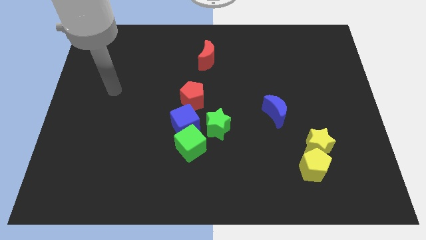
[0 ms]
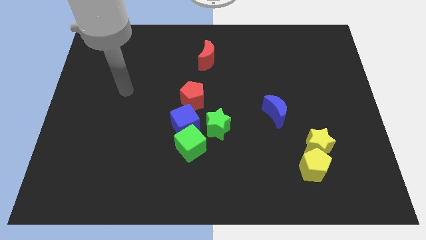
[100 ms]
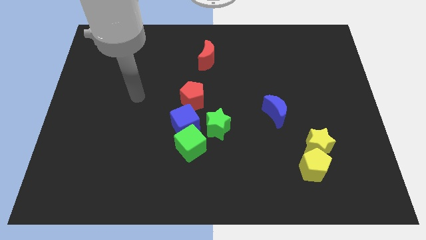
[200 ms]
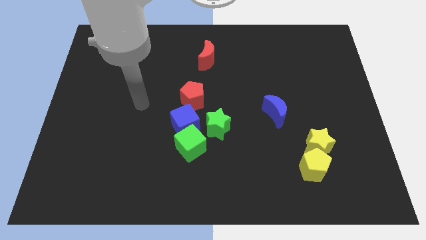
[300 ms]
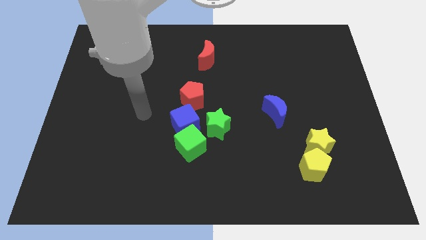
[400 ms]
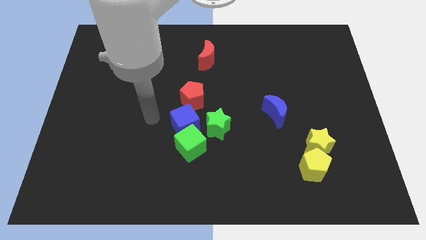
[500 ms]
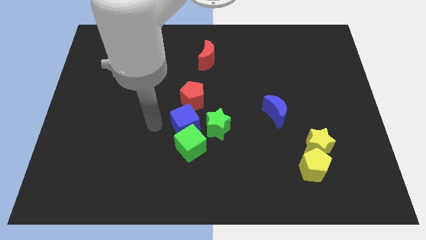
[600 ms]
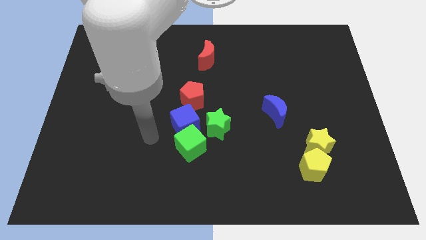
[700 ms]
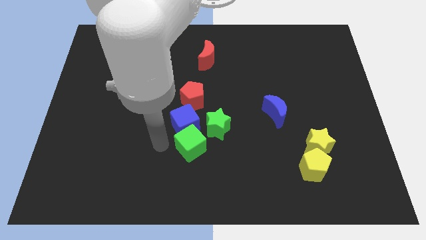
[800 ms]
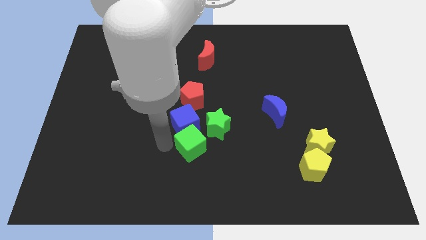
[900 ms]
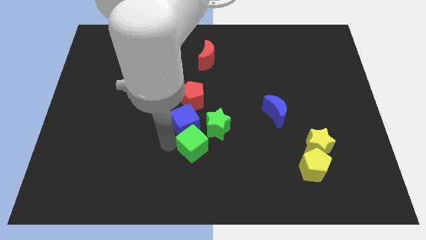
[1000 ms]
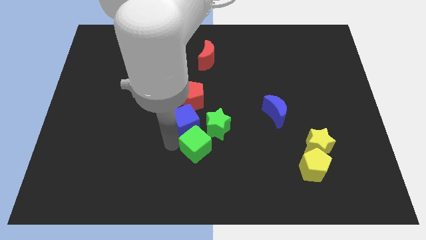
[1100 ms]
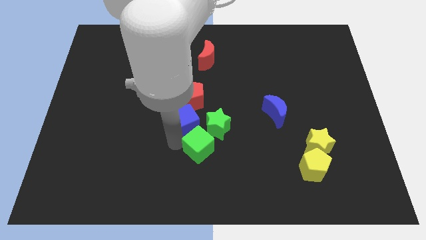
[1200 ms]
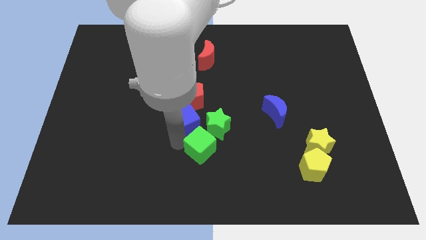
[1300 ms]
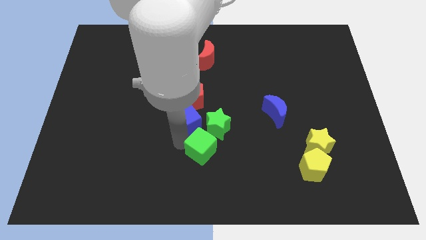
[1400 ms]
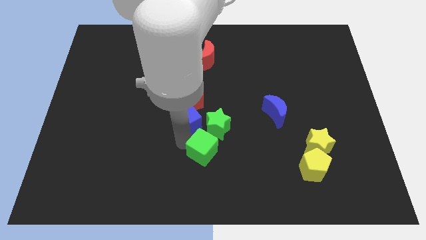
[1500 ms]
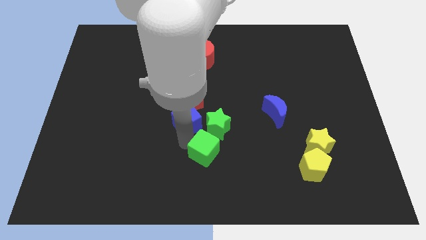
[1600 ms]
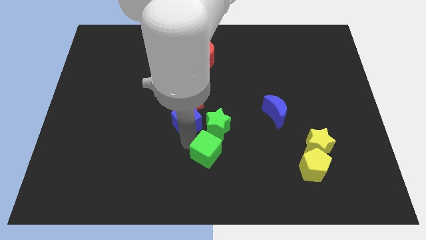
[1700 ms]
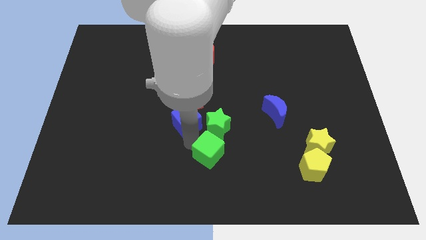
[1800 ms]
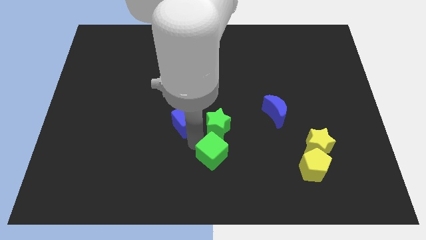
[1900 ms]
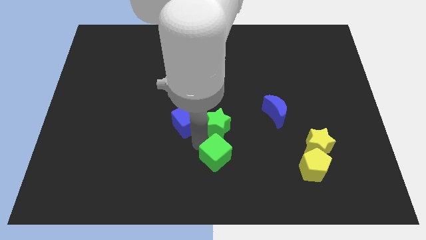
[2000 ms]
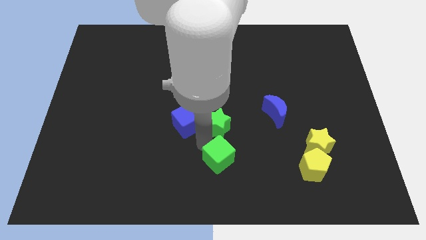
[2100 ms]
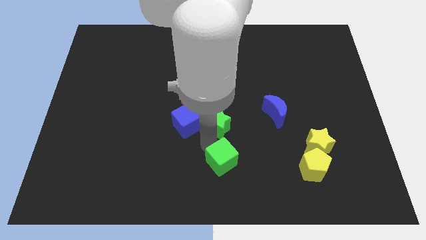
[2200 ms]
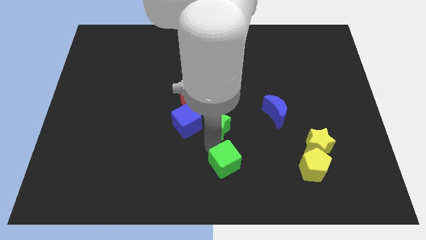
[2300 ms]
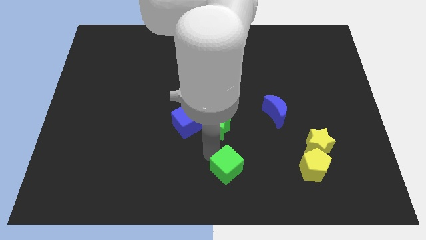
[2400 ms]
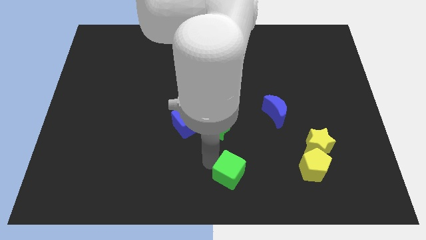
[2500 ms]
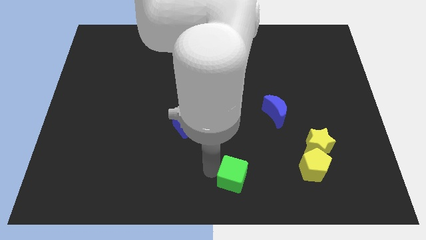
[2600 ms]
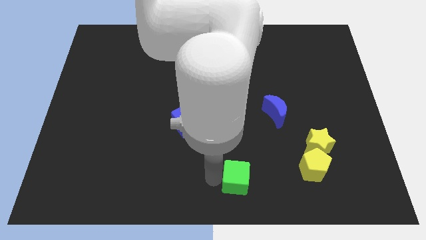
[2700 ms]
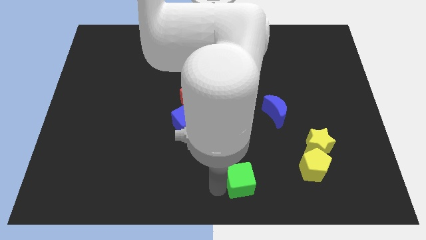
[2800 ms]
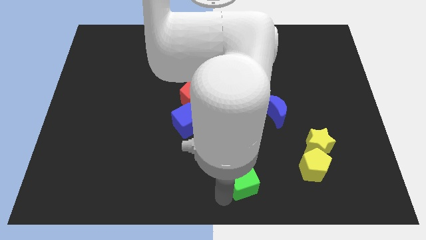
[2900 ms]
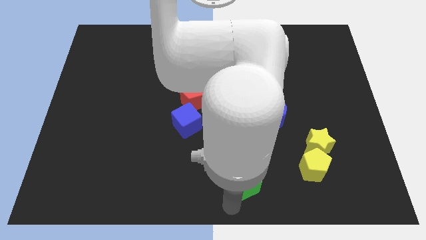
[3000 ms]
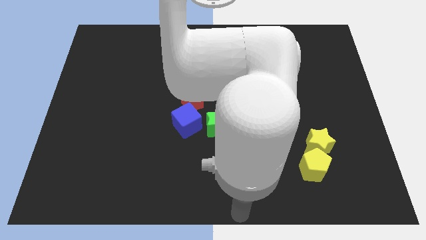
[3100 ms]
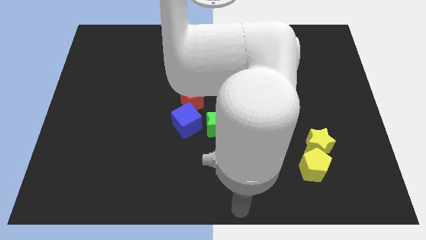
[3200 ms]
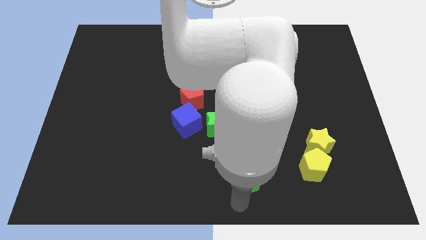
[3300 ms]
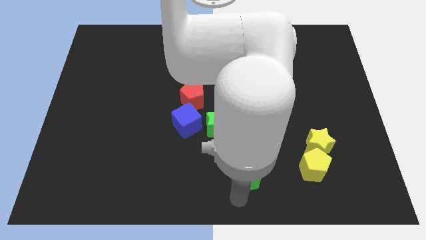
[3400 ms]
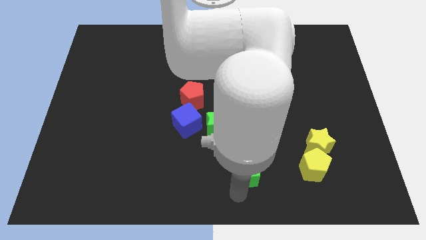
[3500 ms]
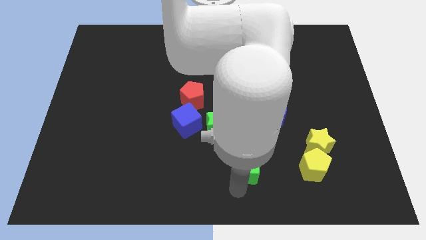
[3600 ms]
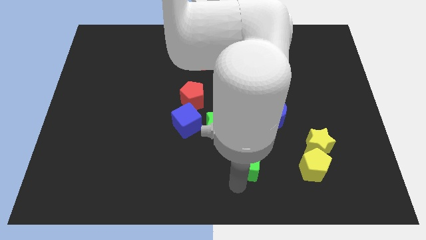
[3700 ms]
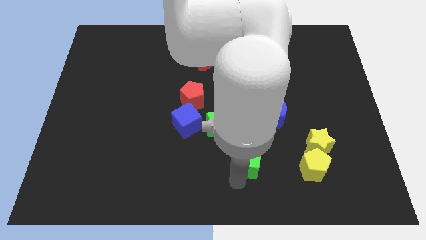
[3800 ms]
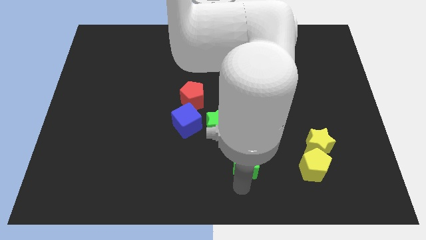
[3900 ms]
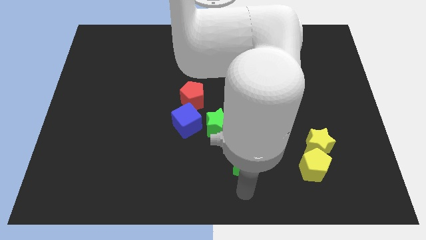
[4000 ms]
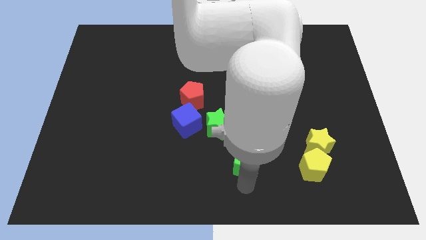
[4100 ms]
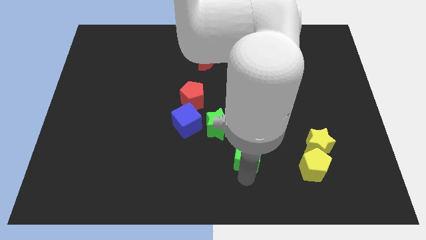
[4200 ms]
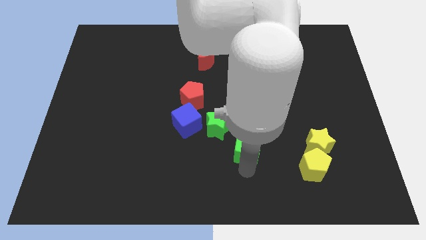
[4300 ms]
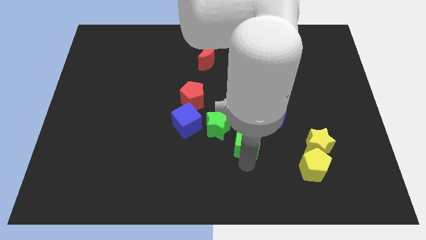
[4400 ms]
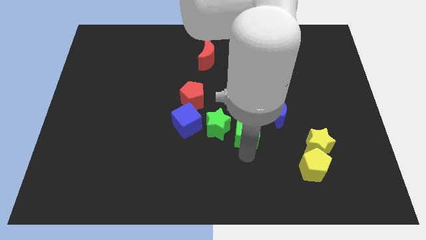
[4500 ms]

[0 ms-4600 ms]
push the green cube somewhat diagonally upwards and to the right

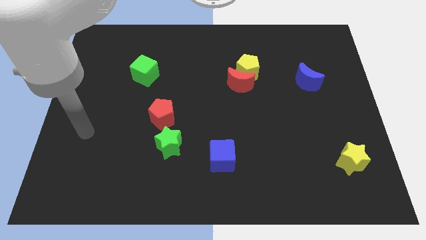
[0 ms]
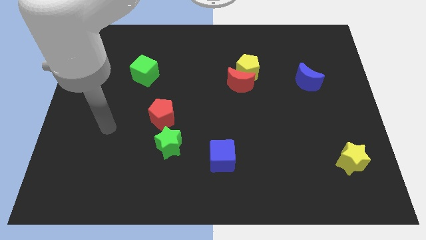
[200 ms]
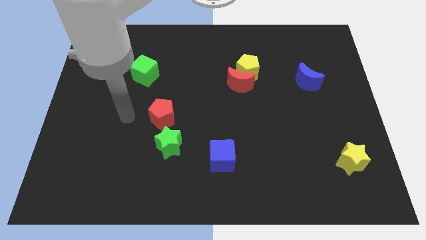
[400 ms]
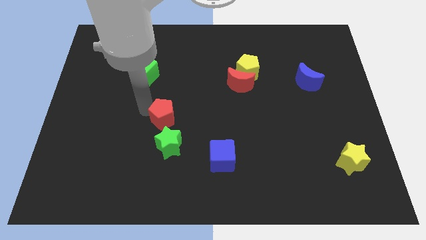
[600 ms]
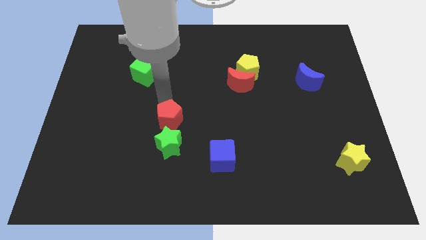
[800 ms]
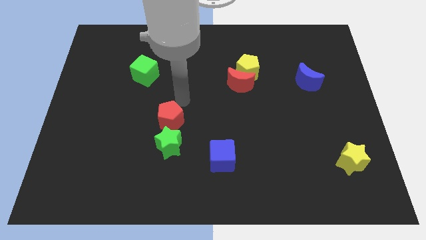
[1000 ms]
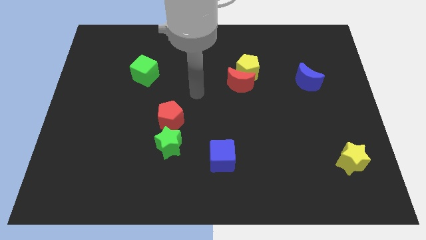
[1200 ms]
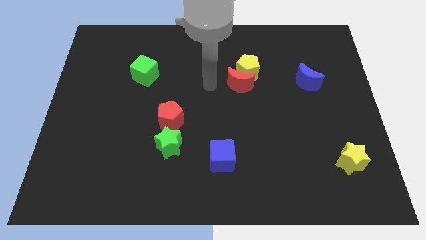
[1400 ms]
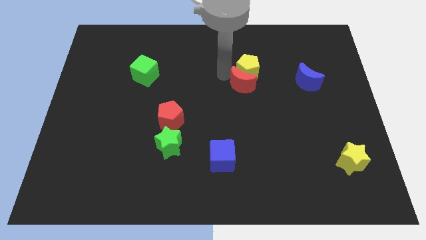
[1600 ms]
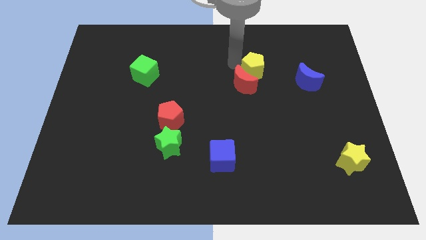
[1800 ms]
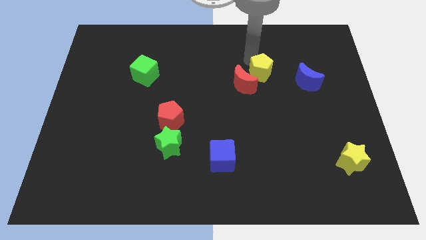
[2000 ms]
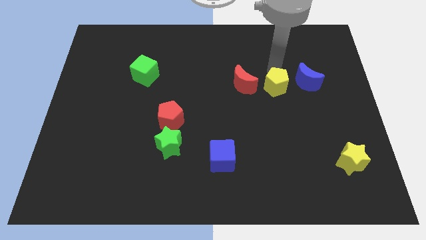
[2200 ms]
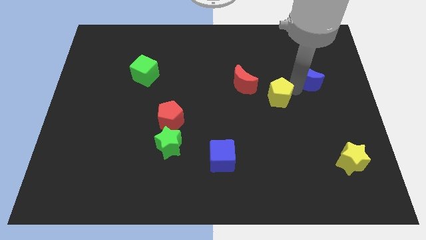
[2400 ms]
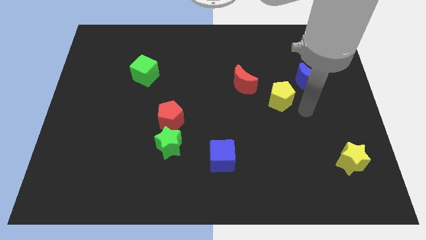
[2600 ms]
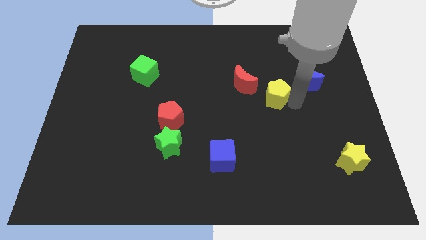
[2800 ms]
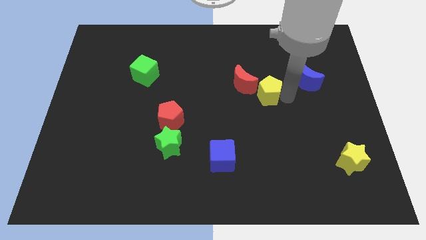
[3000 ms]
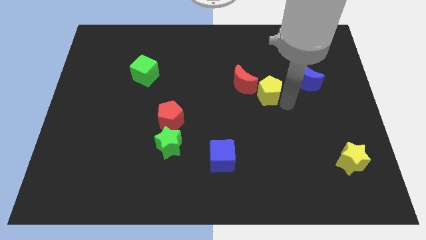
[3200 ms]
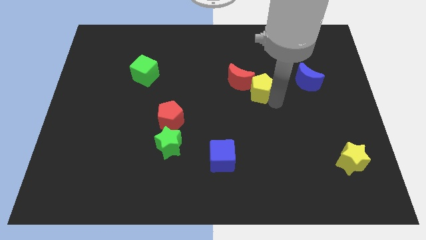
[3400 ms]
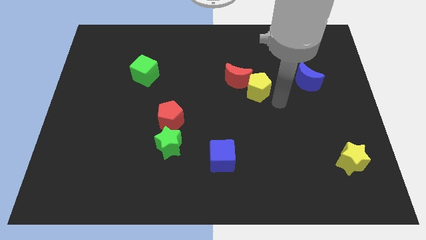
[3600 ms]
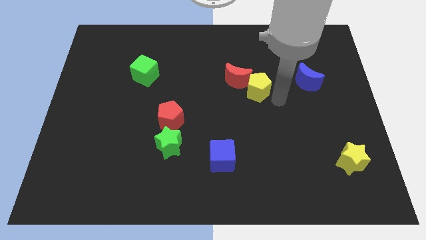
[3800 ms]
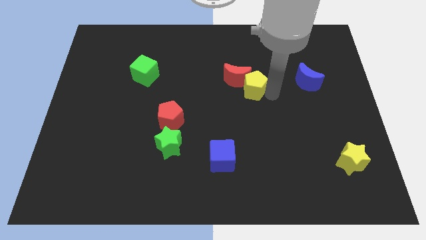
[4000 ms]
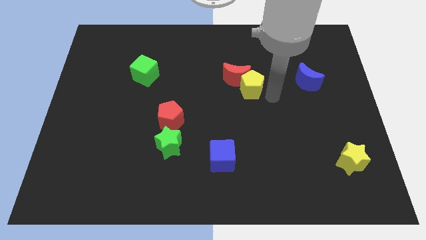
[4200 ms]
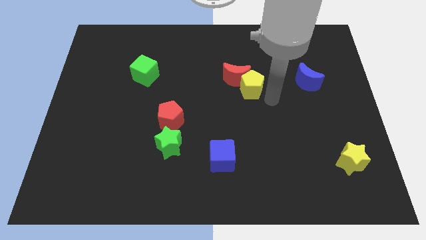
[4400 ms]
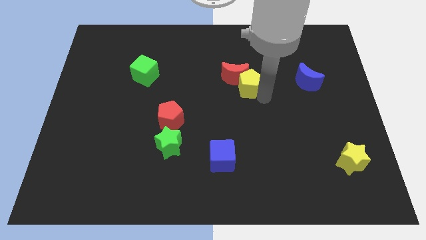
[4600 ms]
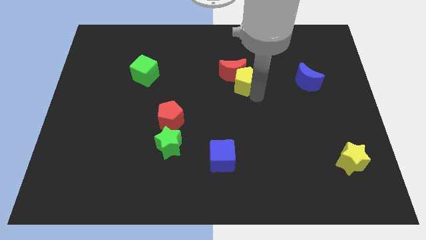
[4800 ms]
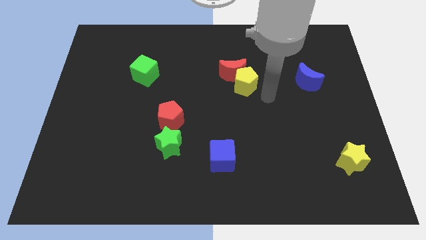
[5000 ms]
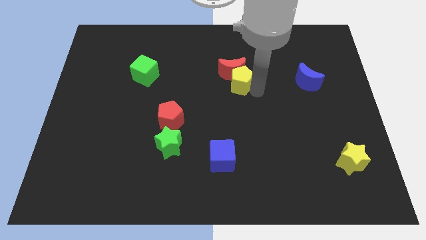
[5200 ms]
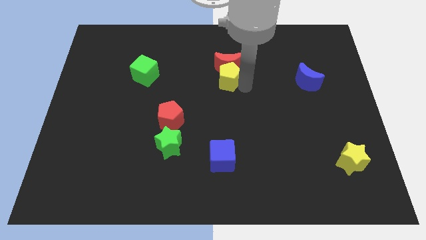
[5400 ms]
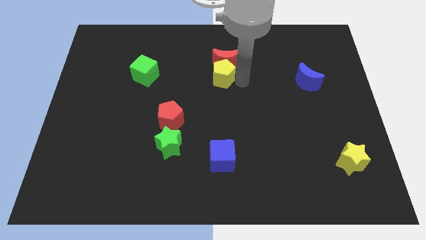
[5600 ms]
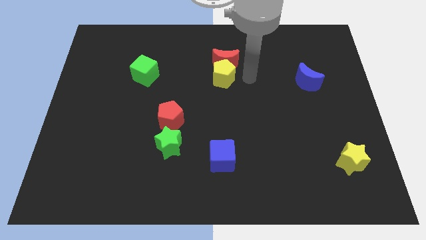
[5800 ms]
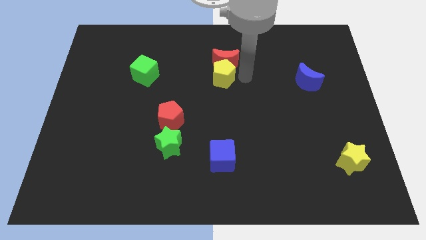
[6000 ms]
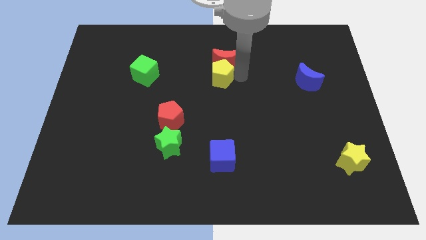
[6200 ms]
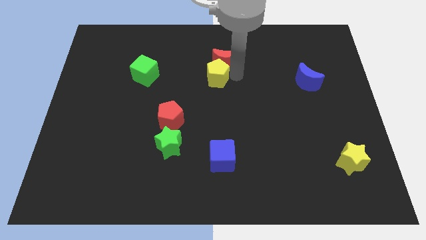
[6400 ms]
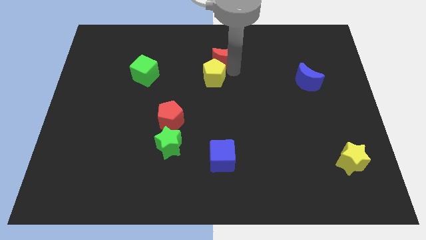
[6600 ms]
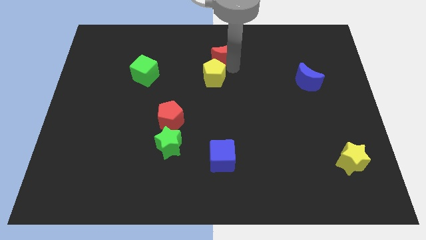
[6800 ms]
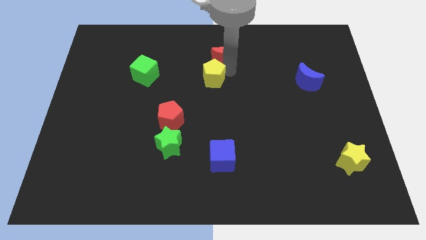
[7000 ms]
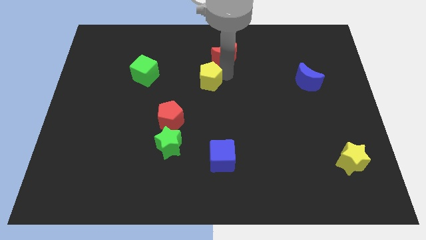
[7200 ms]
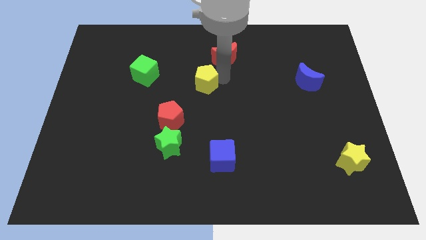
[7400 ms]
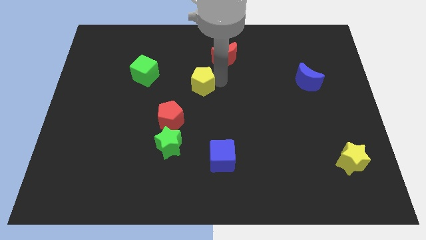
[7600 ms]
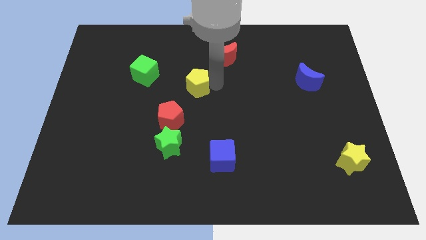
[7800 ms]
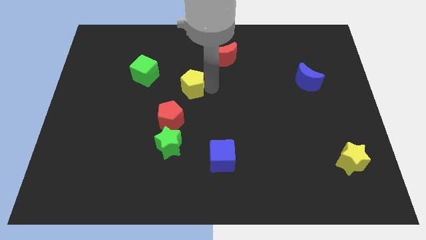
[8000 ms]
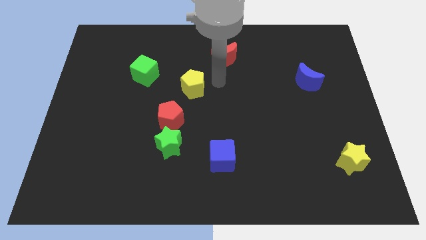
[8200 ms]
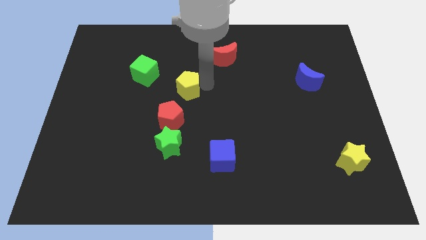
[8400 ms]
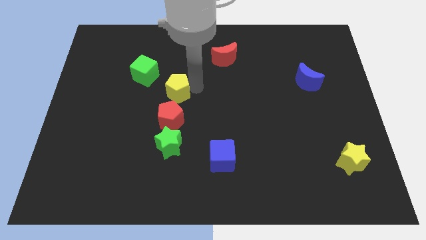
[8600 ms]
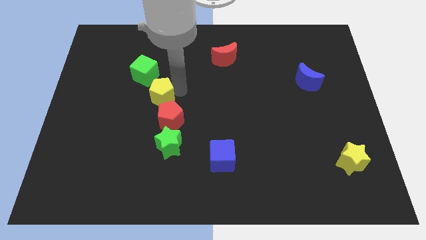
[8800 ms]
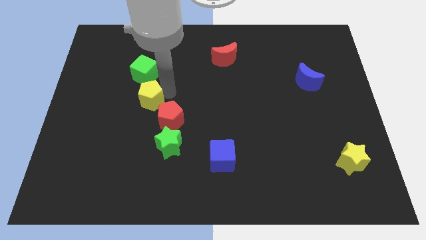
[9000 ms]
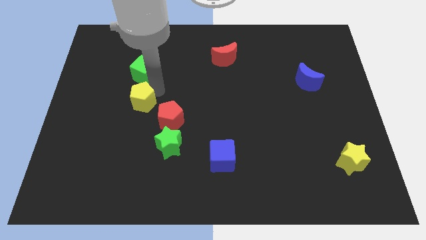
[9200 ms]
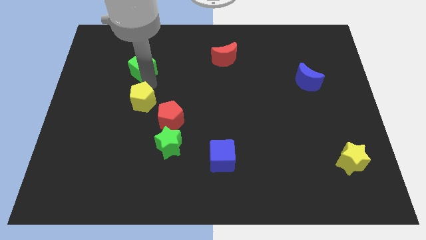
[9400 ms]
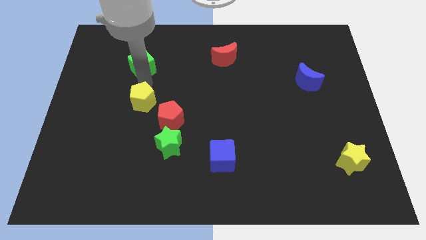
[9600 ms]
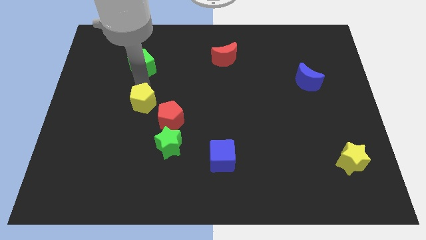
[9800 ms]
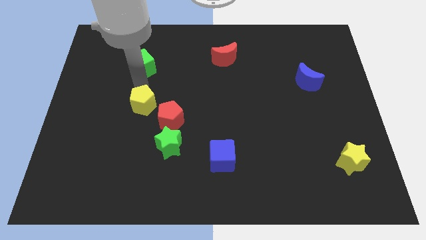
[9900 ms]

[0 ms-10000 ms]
push the yellow pentagon down and left diagonally
